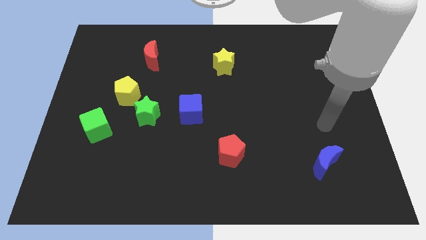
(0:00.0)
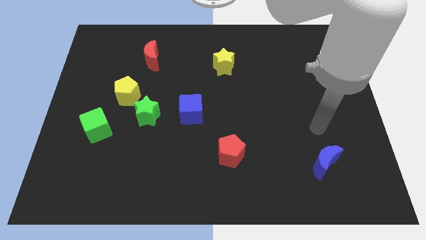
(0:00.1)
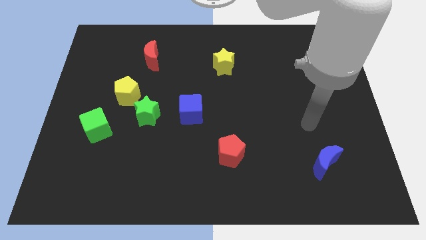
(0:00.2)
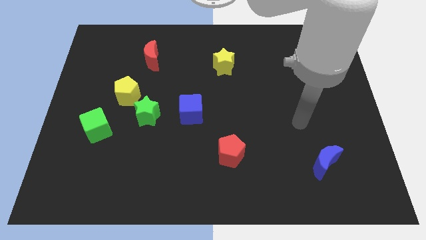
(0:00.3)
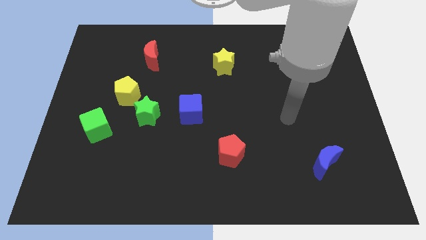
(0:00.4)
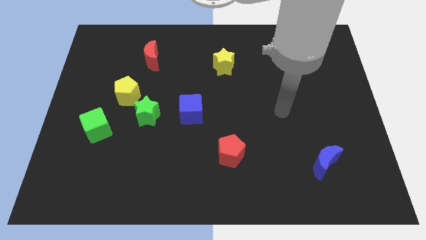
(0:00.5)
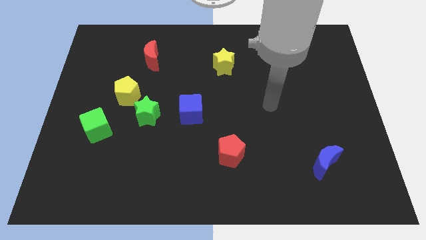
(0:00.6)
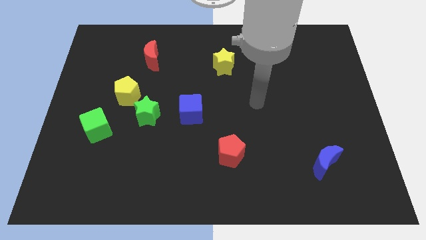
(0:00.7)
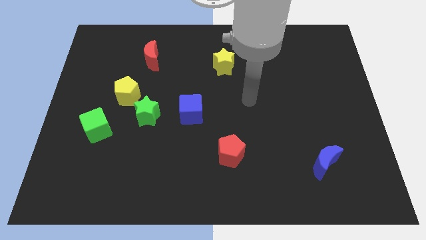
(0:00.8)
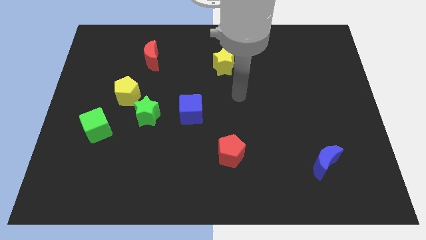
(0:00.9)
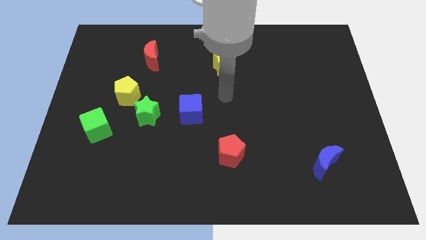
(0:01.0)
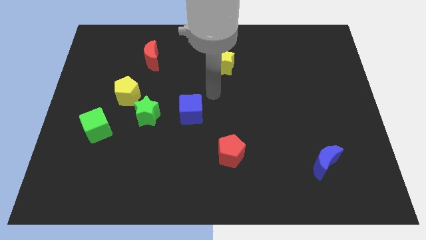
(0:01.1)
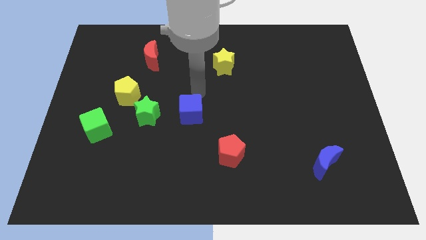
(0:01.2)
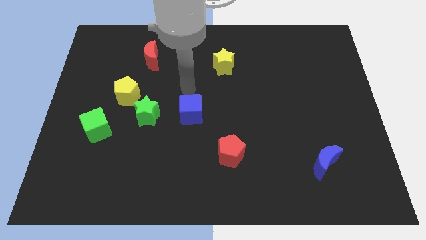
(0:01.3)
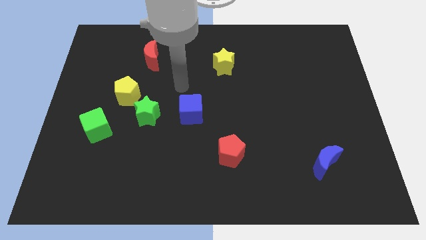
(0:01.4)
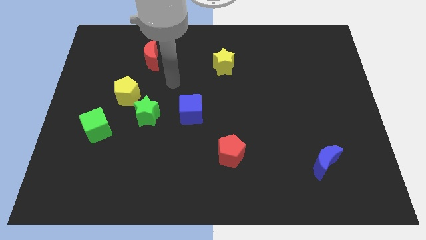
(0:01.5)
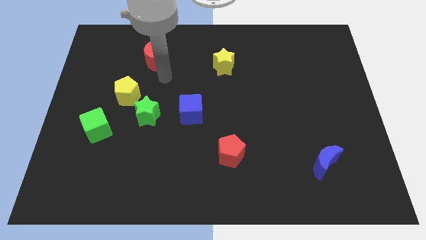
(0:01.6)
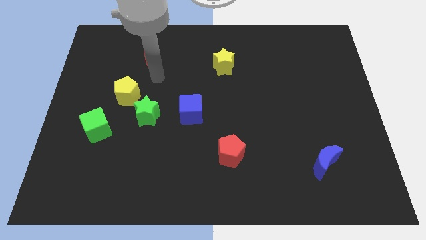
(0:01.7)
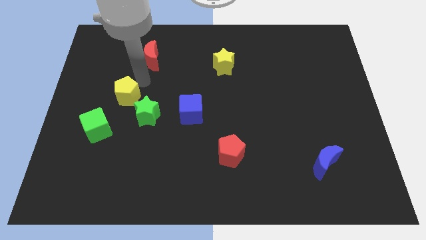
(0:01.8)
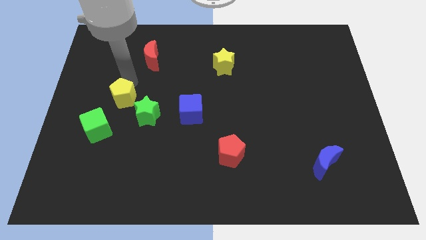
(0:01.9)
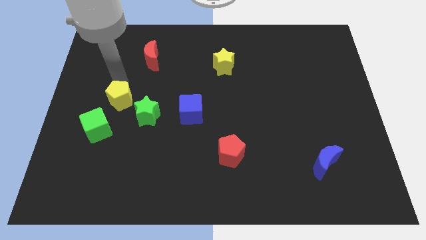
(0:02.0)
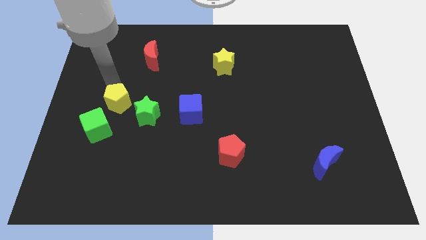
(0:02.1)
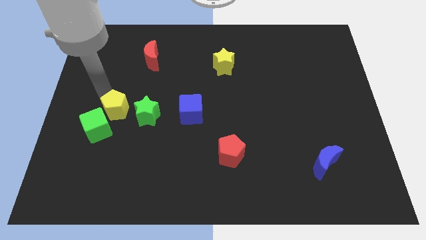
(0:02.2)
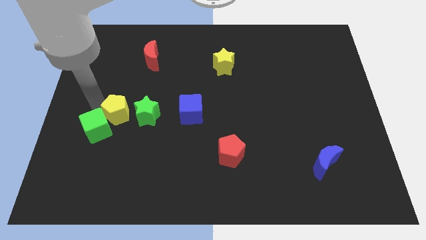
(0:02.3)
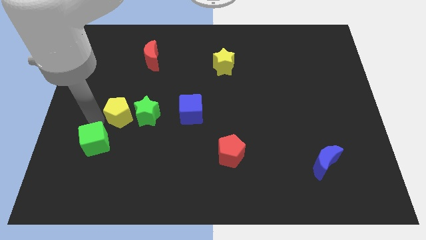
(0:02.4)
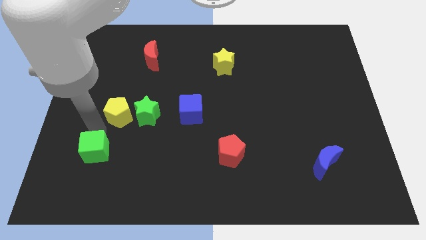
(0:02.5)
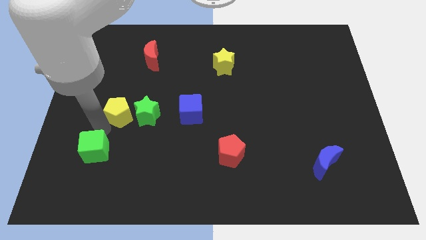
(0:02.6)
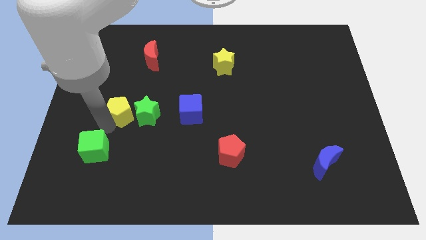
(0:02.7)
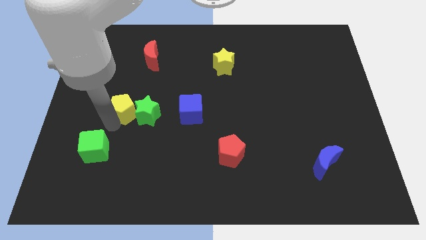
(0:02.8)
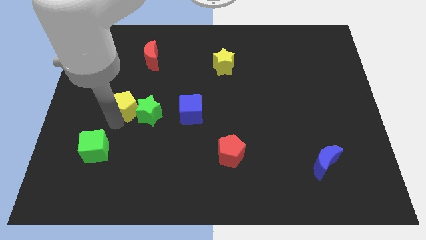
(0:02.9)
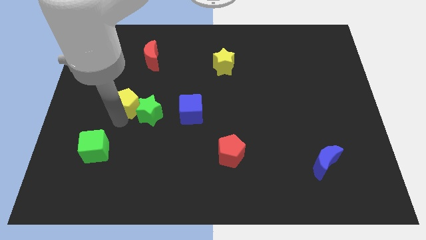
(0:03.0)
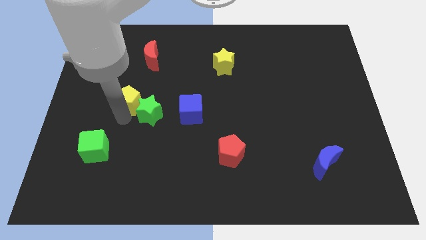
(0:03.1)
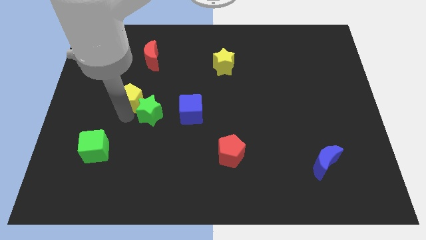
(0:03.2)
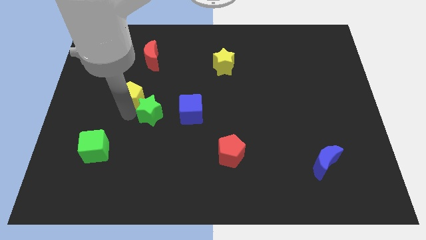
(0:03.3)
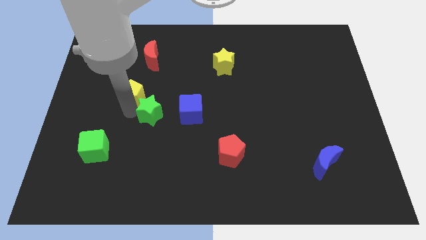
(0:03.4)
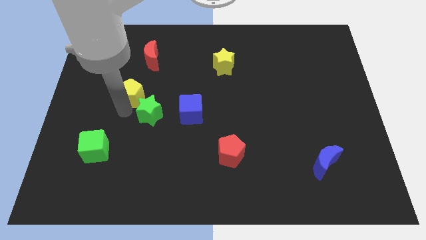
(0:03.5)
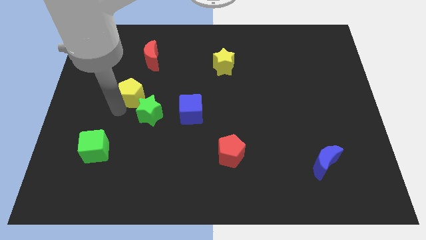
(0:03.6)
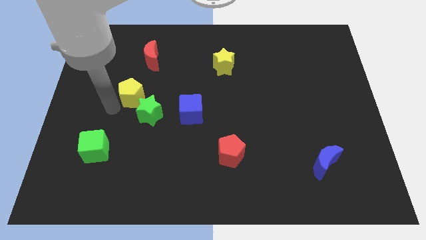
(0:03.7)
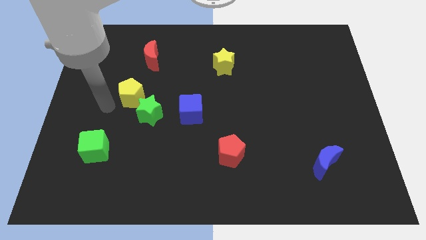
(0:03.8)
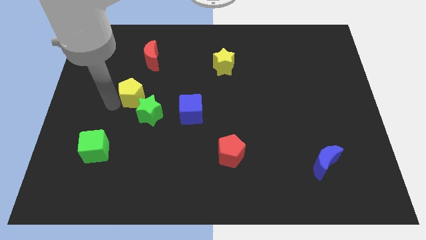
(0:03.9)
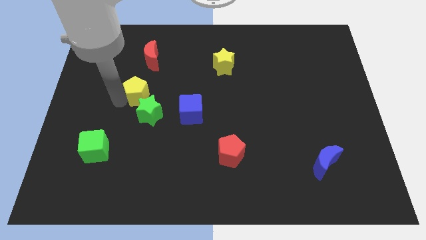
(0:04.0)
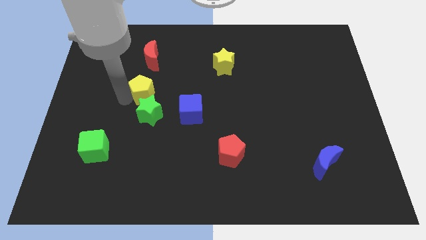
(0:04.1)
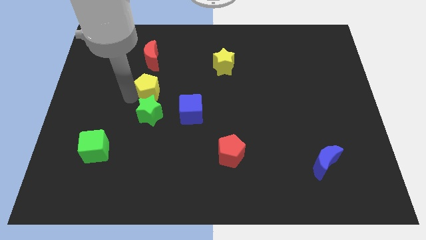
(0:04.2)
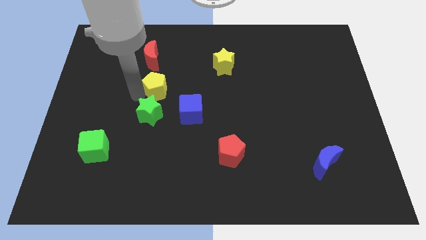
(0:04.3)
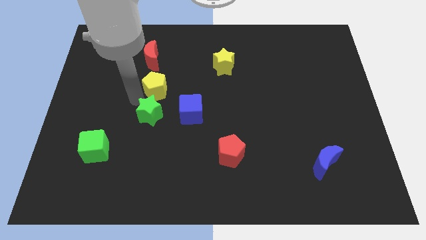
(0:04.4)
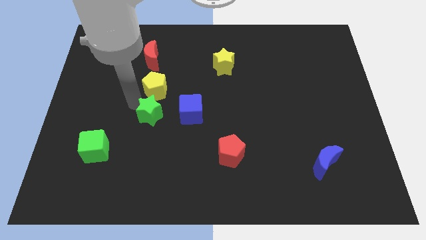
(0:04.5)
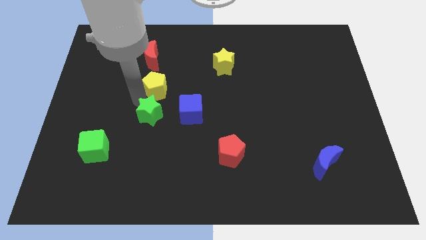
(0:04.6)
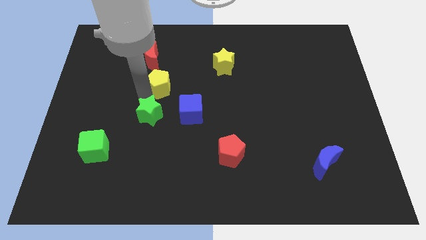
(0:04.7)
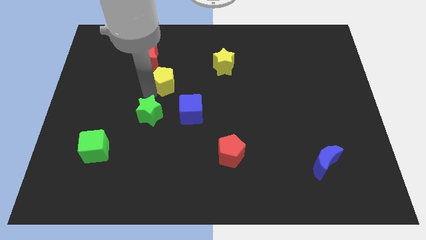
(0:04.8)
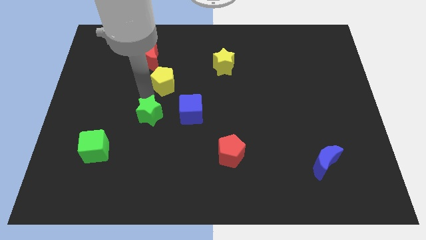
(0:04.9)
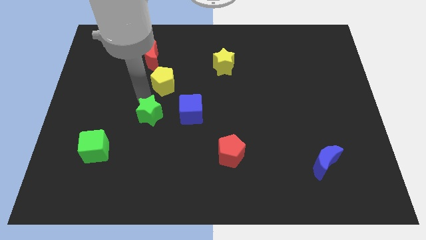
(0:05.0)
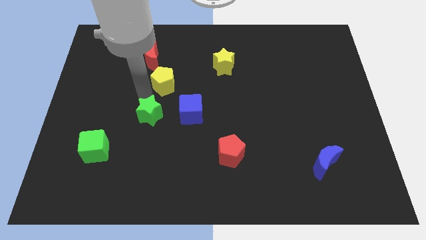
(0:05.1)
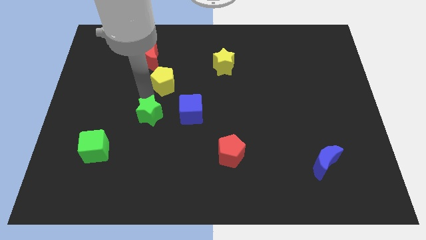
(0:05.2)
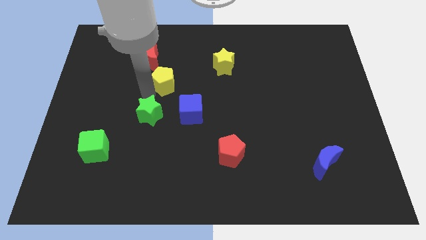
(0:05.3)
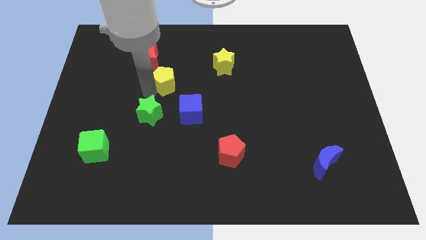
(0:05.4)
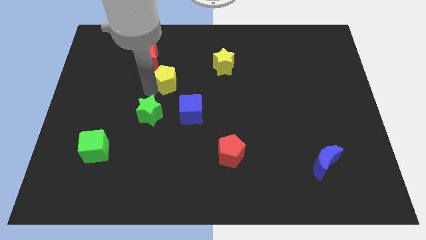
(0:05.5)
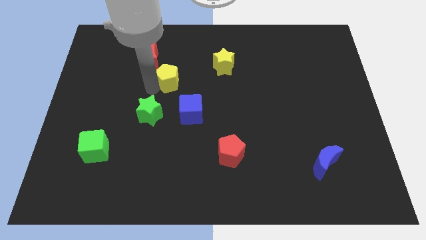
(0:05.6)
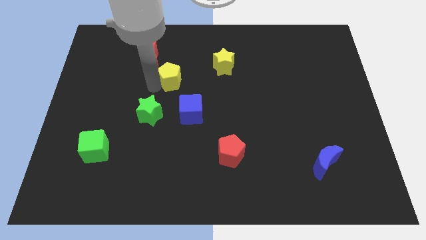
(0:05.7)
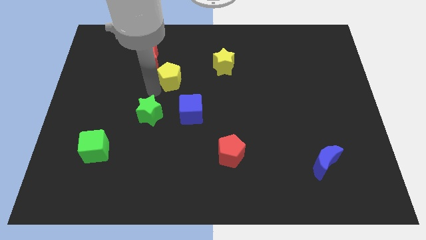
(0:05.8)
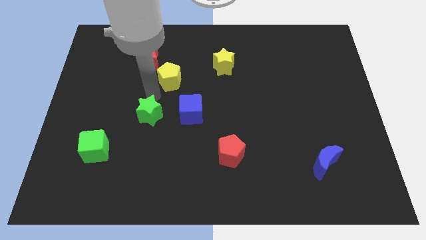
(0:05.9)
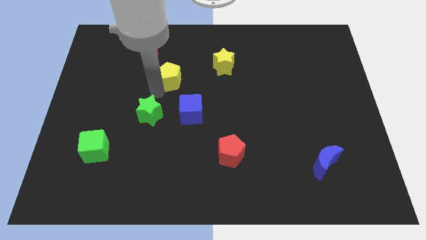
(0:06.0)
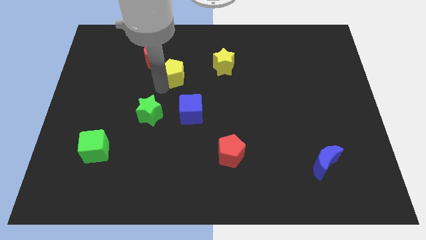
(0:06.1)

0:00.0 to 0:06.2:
push the yellow pentagon left of the yellow star
